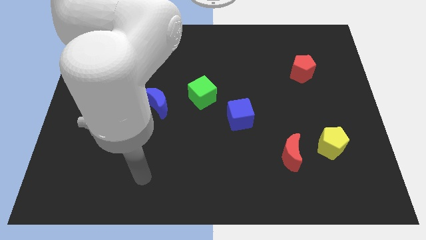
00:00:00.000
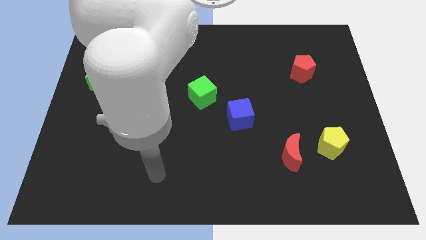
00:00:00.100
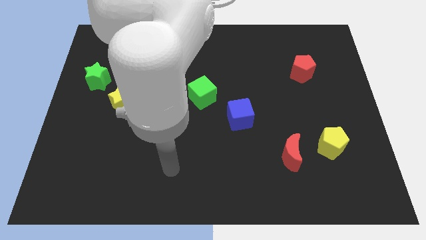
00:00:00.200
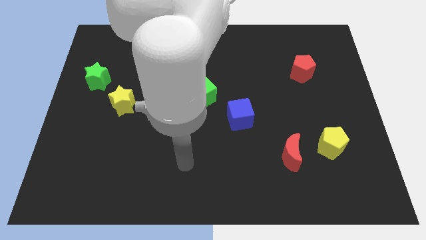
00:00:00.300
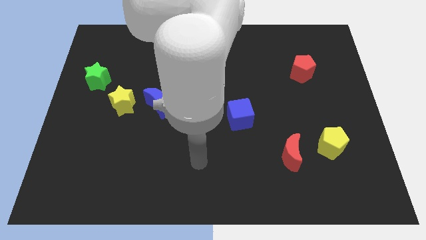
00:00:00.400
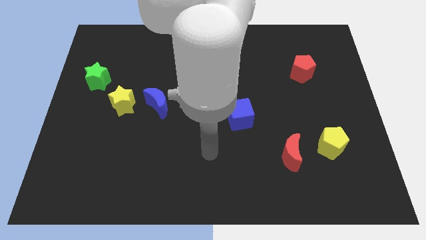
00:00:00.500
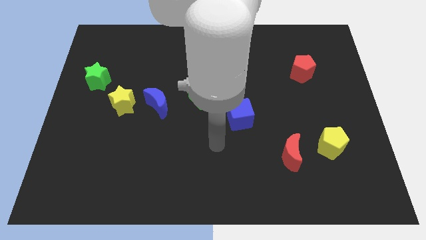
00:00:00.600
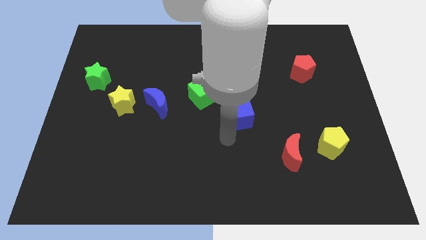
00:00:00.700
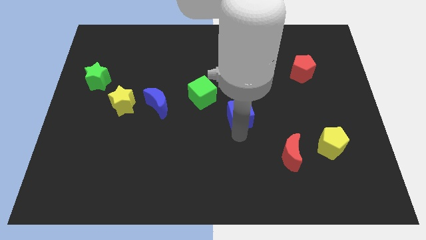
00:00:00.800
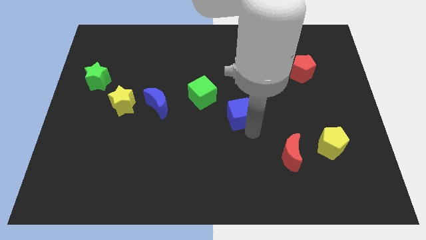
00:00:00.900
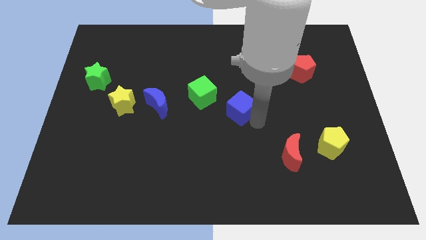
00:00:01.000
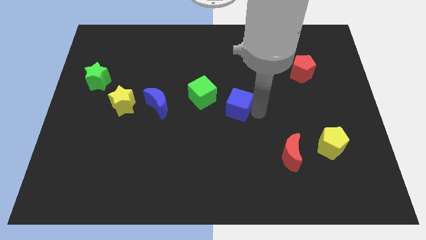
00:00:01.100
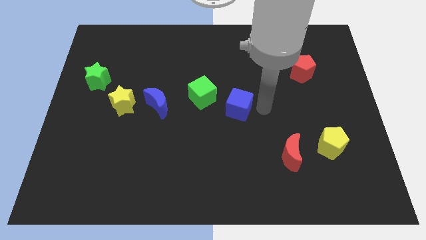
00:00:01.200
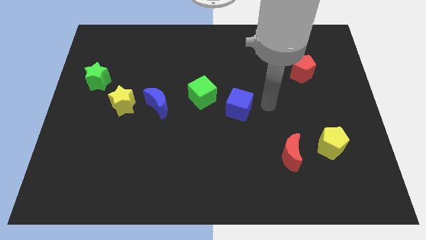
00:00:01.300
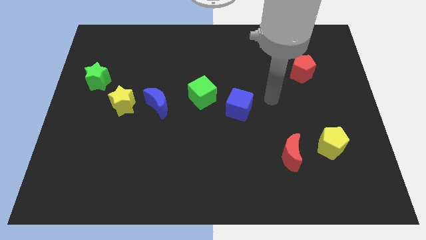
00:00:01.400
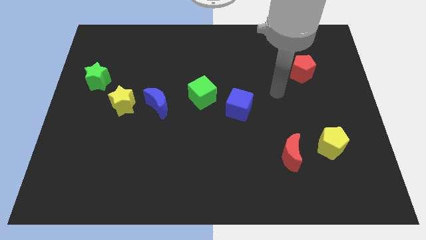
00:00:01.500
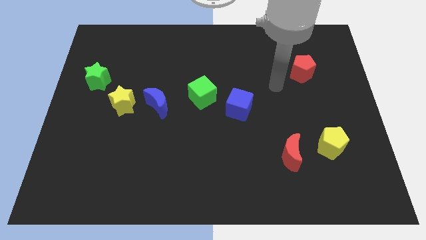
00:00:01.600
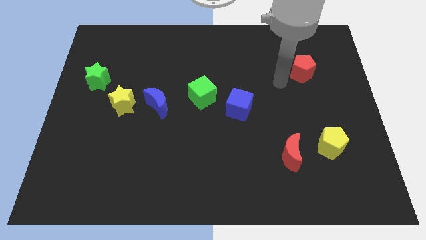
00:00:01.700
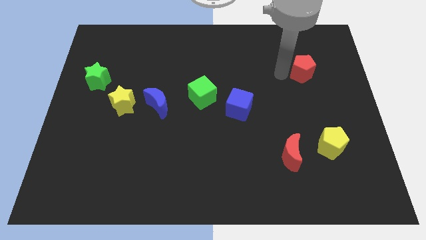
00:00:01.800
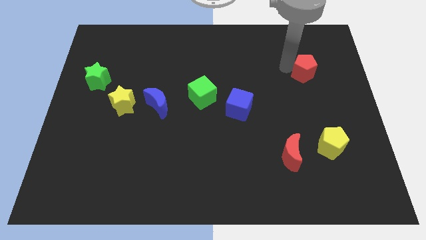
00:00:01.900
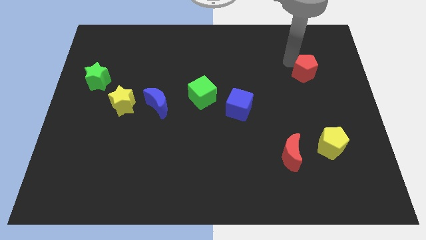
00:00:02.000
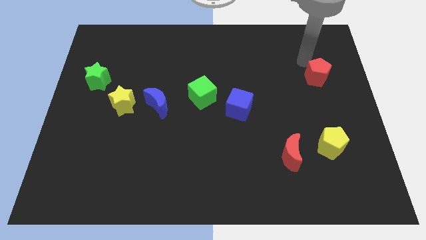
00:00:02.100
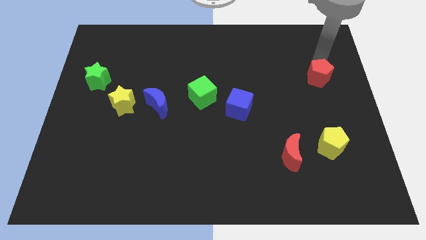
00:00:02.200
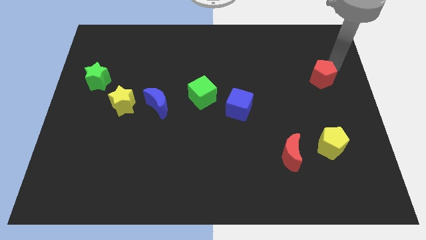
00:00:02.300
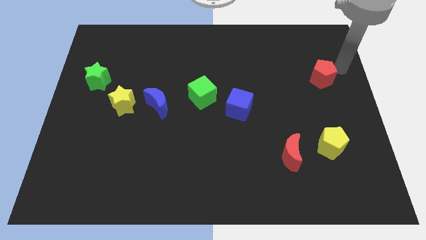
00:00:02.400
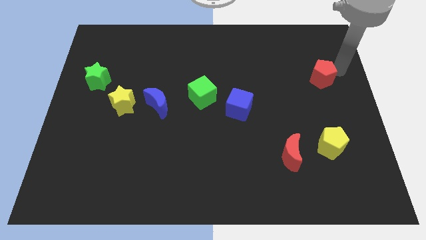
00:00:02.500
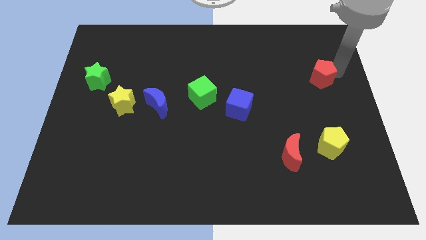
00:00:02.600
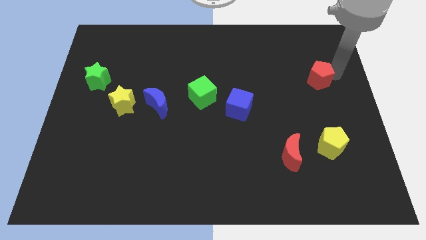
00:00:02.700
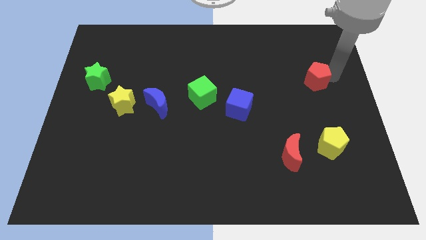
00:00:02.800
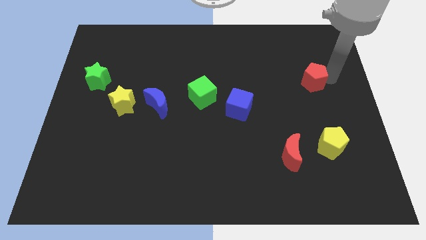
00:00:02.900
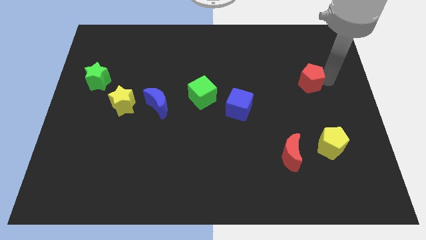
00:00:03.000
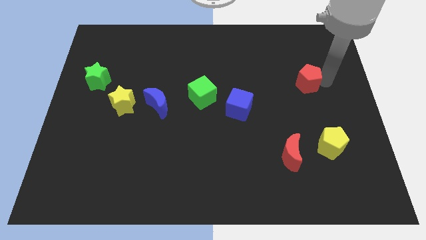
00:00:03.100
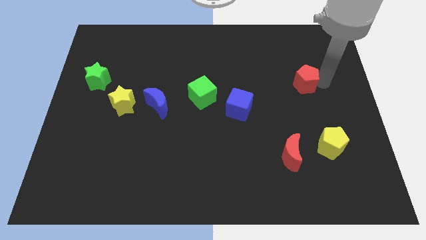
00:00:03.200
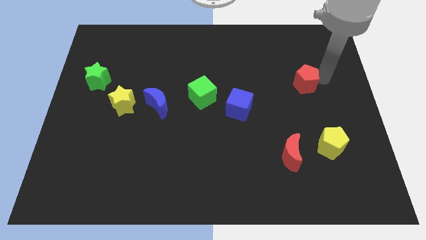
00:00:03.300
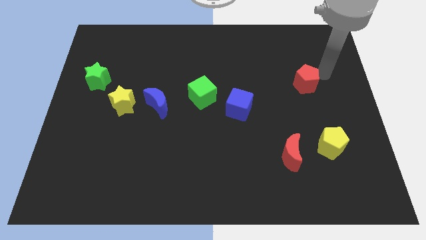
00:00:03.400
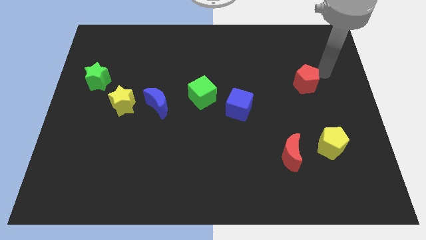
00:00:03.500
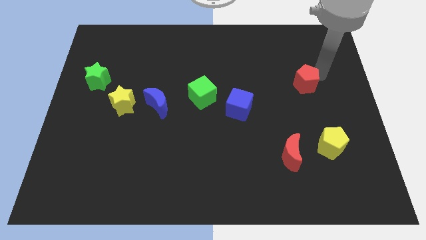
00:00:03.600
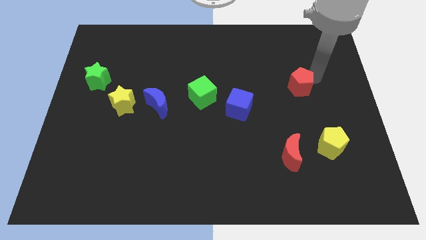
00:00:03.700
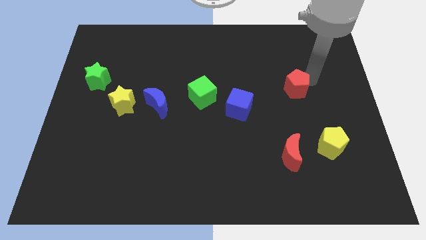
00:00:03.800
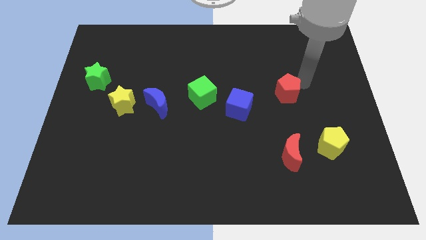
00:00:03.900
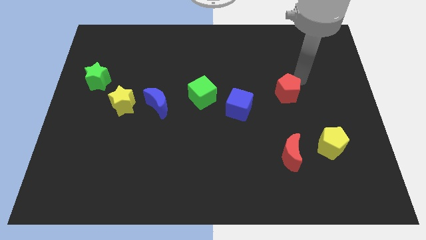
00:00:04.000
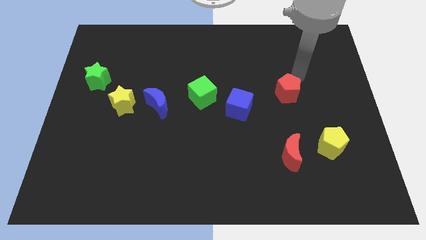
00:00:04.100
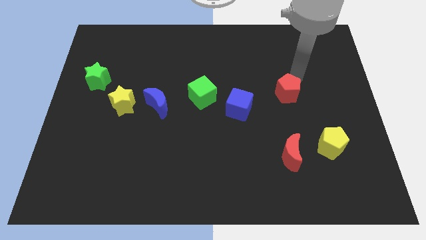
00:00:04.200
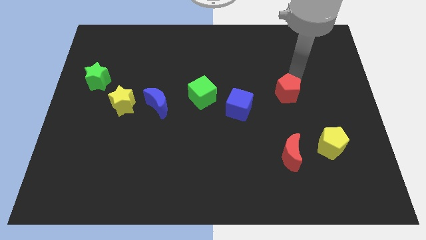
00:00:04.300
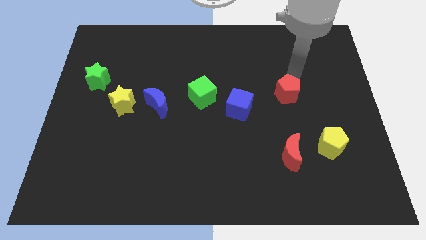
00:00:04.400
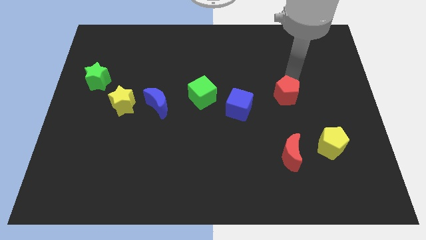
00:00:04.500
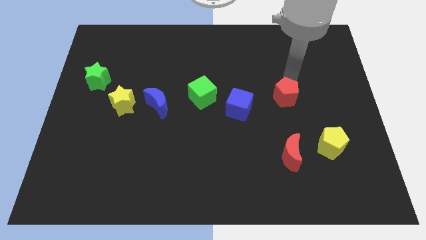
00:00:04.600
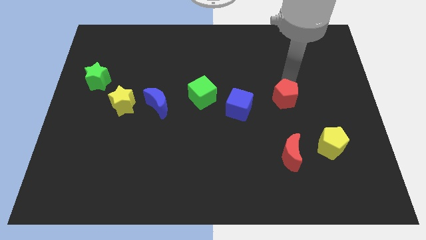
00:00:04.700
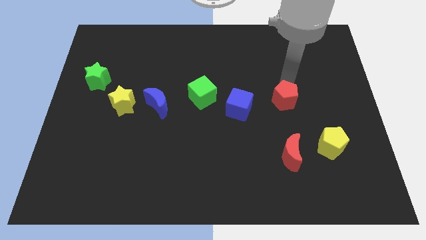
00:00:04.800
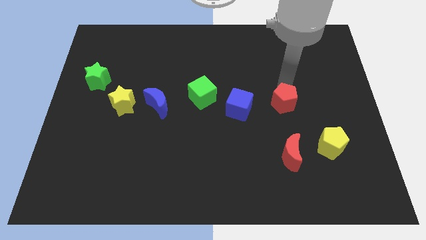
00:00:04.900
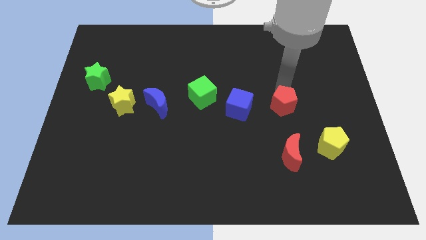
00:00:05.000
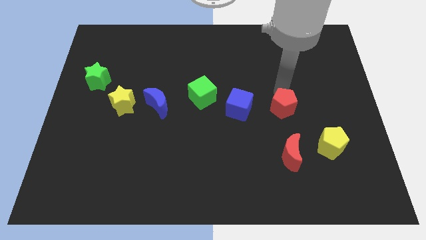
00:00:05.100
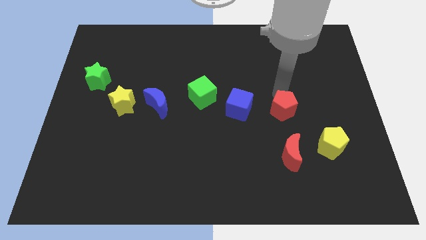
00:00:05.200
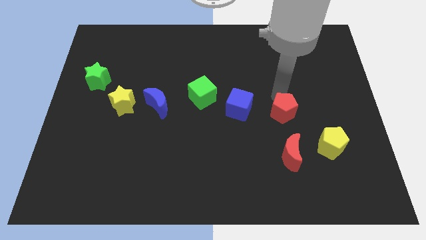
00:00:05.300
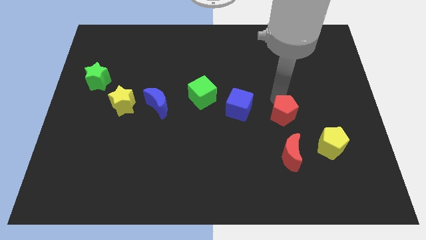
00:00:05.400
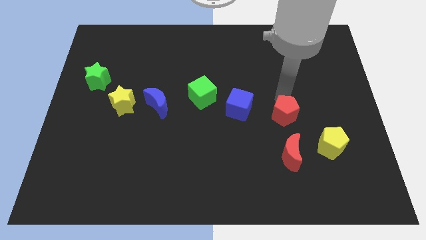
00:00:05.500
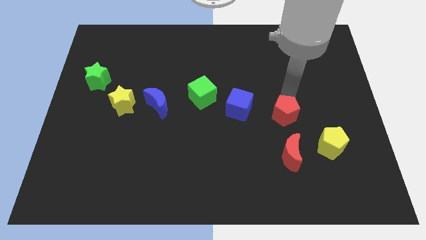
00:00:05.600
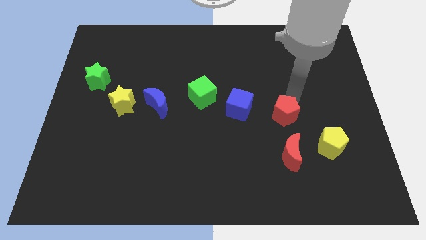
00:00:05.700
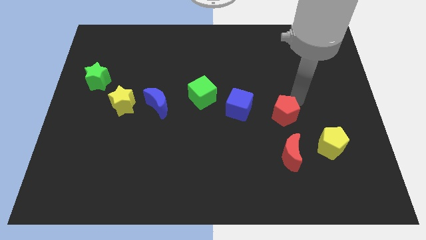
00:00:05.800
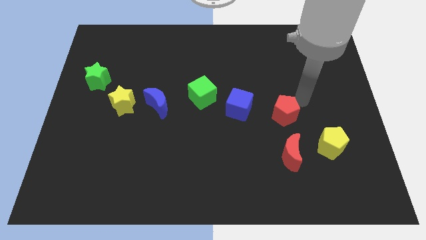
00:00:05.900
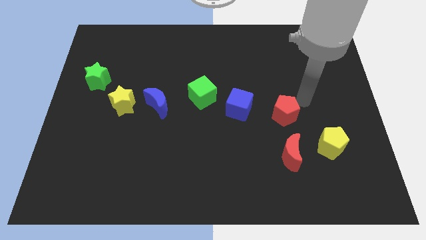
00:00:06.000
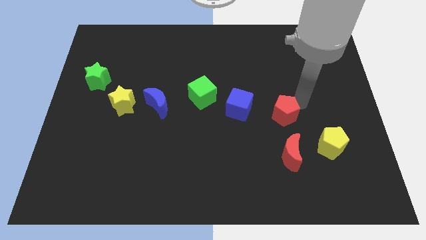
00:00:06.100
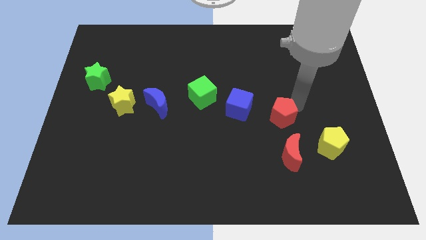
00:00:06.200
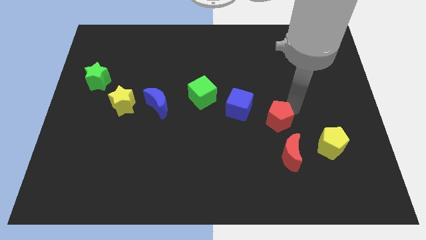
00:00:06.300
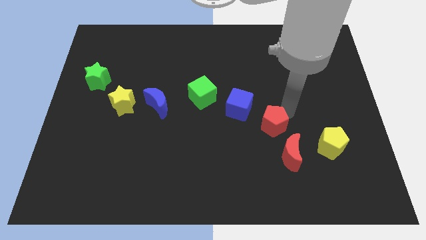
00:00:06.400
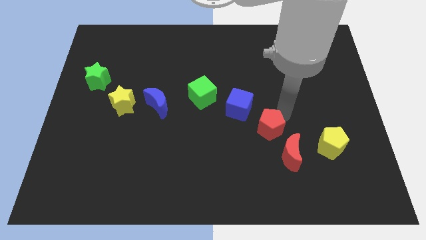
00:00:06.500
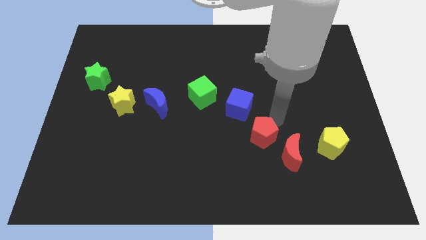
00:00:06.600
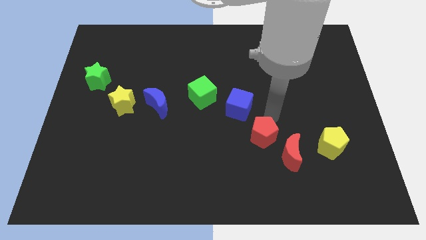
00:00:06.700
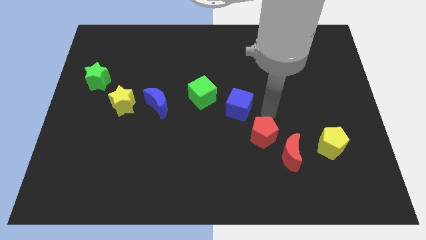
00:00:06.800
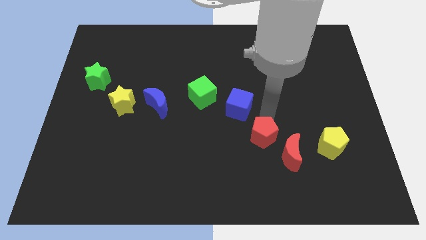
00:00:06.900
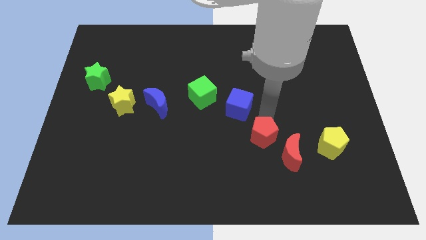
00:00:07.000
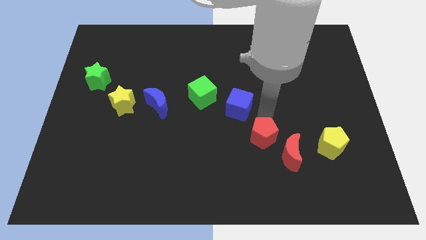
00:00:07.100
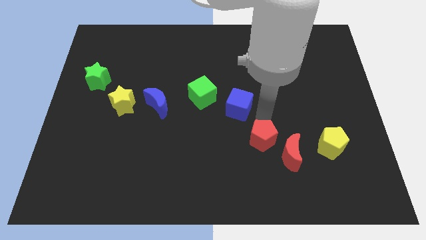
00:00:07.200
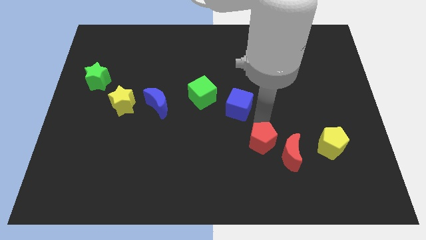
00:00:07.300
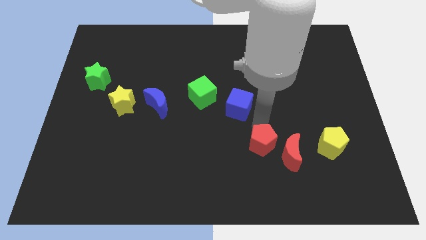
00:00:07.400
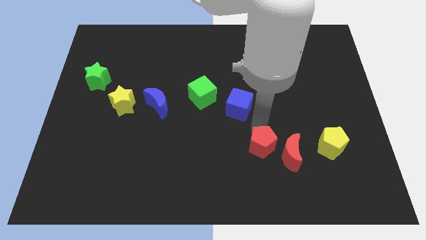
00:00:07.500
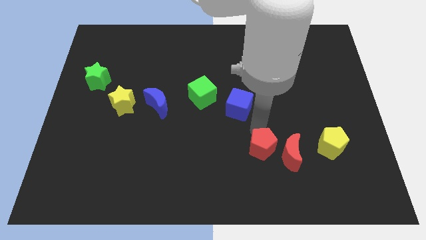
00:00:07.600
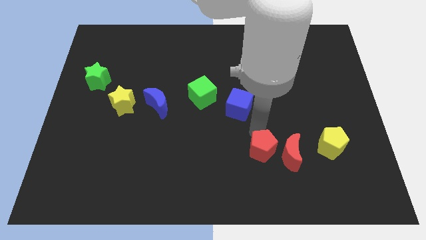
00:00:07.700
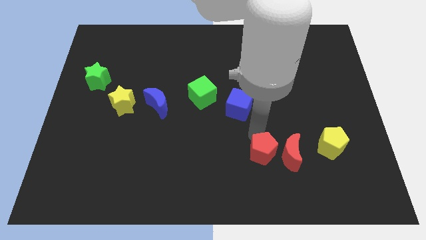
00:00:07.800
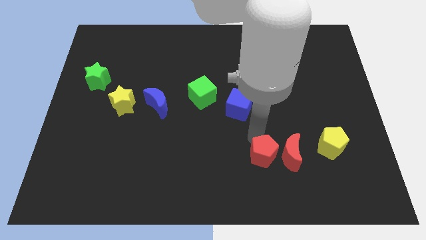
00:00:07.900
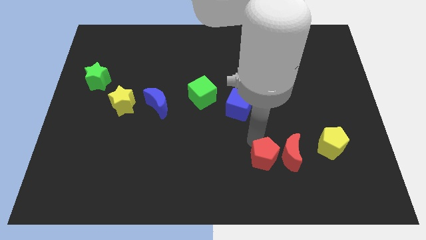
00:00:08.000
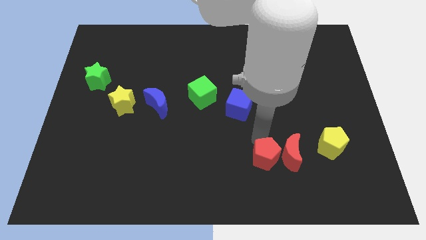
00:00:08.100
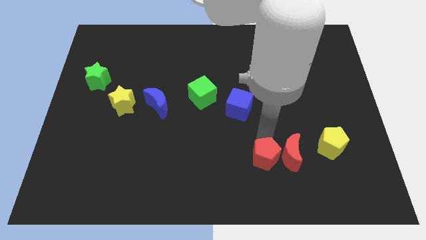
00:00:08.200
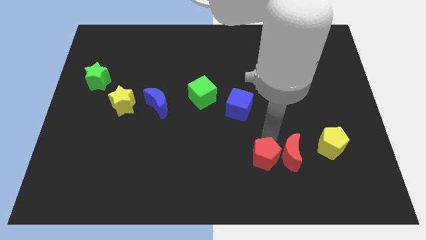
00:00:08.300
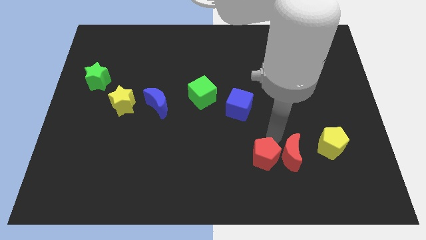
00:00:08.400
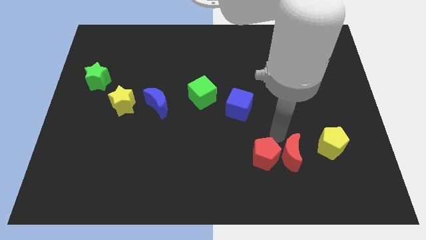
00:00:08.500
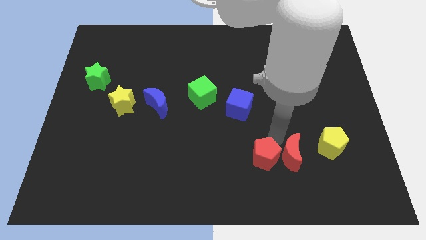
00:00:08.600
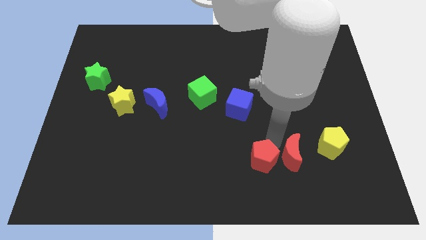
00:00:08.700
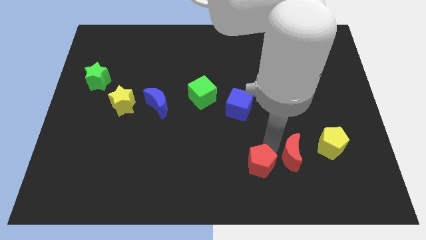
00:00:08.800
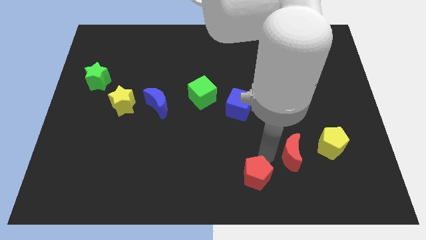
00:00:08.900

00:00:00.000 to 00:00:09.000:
move the red pentagon to the bottom side
